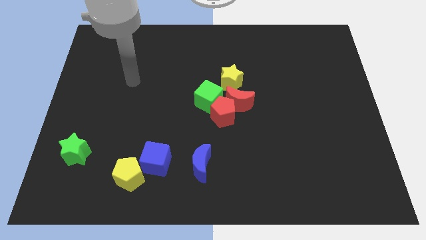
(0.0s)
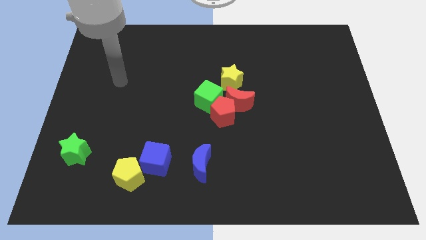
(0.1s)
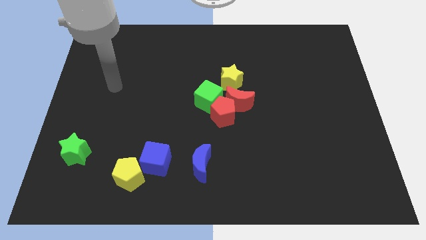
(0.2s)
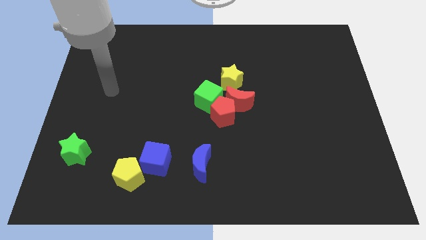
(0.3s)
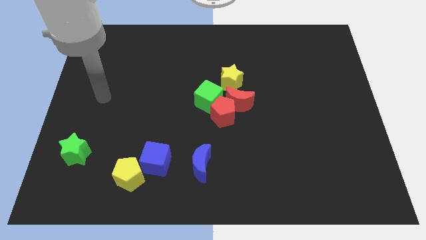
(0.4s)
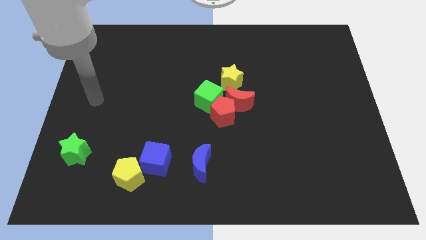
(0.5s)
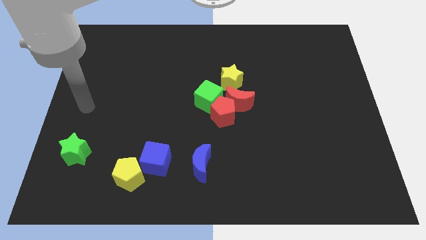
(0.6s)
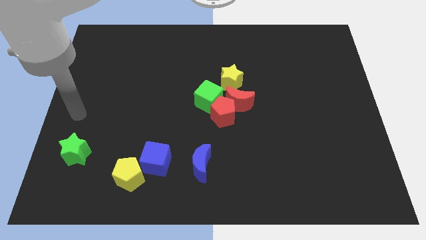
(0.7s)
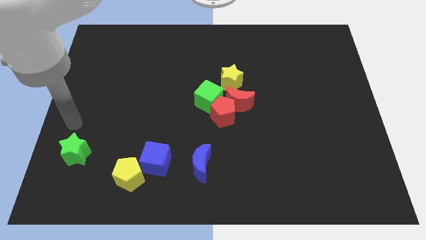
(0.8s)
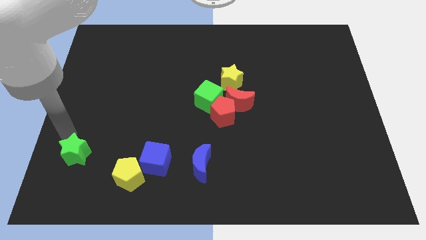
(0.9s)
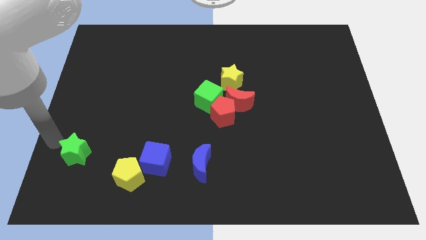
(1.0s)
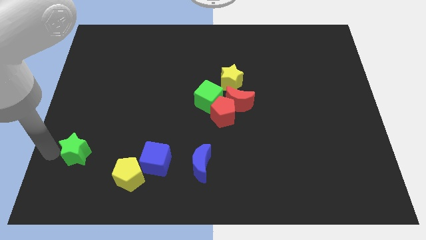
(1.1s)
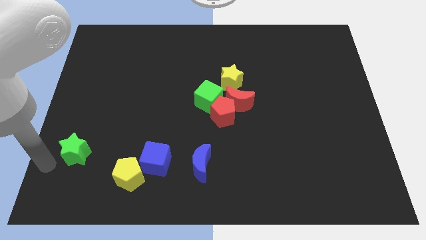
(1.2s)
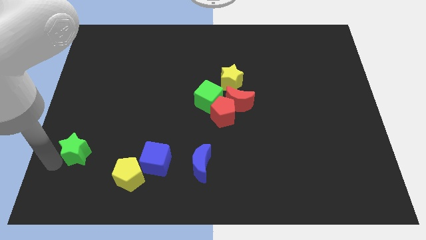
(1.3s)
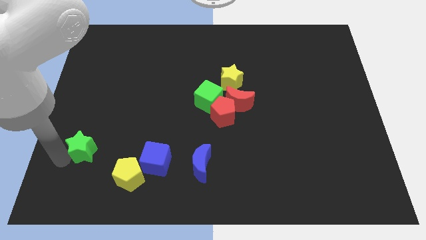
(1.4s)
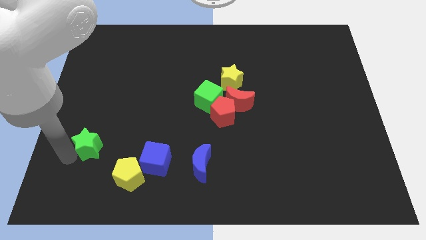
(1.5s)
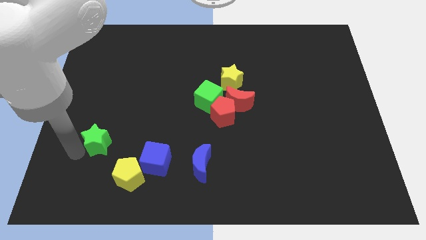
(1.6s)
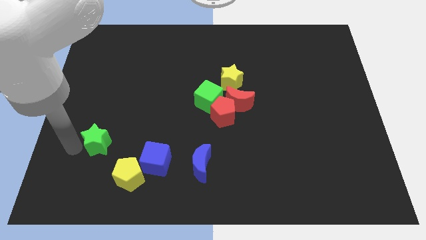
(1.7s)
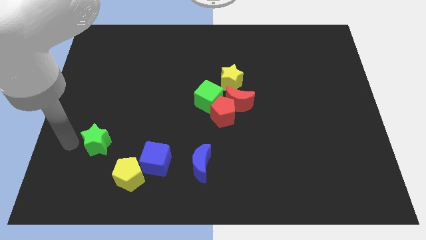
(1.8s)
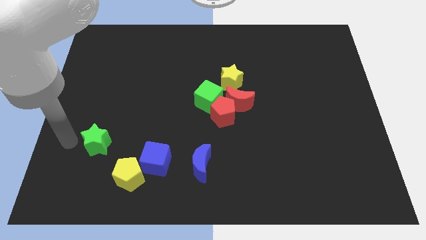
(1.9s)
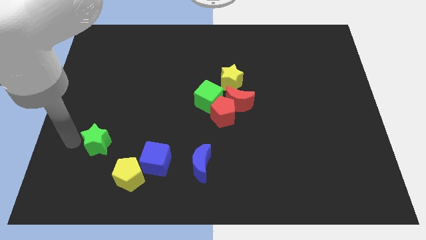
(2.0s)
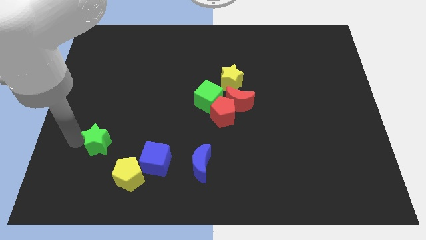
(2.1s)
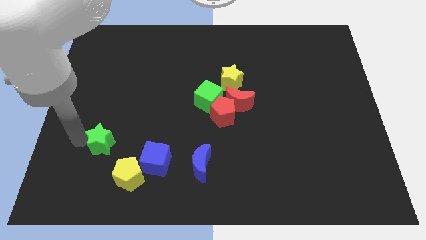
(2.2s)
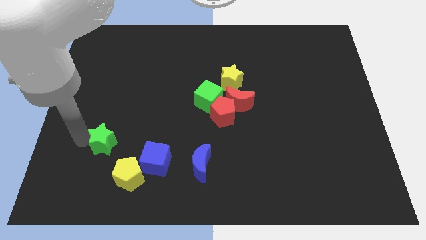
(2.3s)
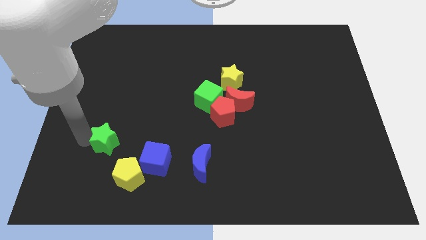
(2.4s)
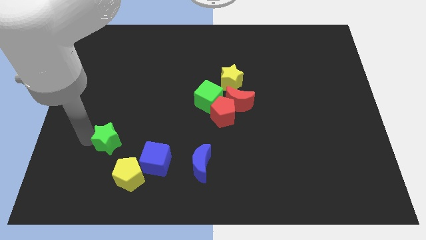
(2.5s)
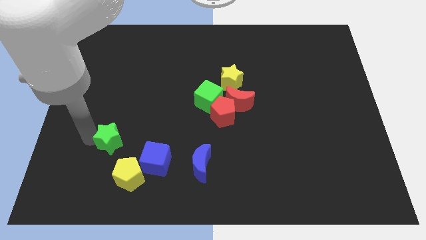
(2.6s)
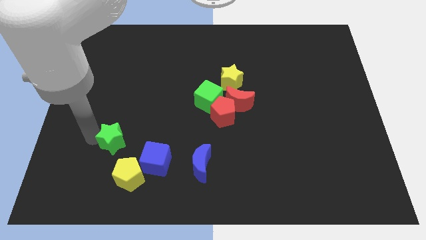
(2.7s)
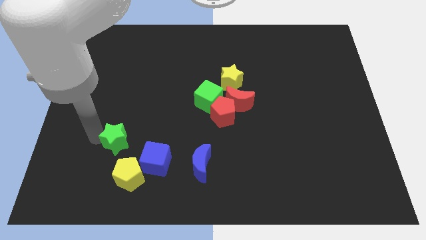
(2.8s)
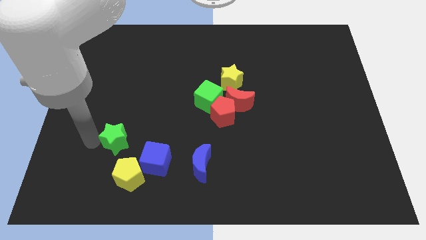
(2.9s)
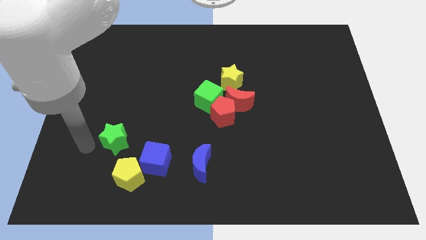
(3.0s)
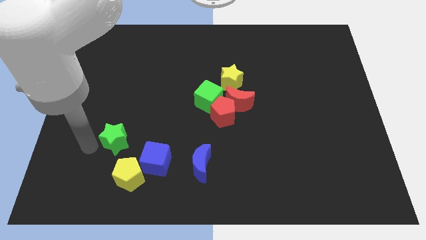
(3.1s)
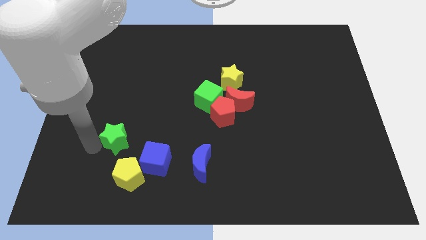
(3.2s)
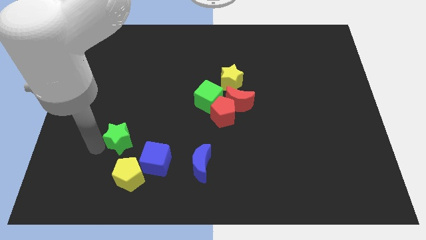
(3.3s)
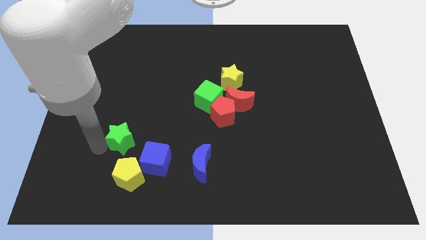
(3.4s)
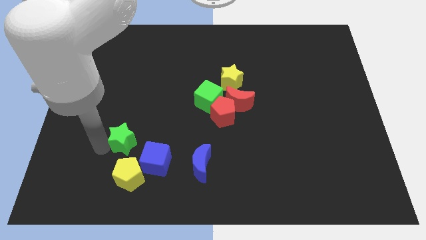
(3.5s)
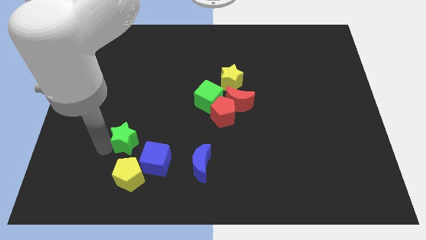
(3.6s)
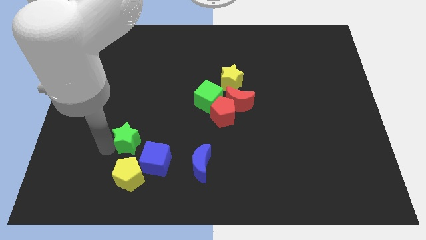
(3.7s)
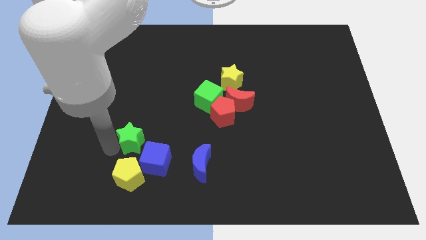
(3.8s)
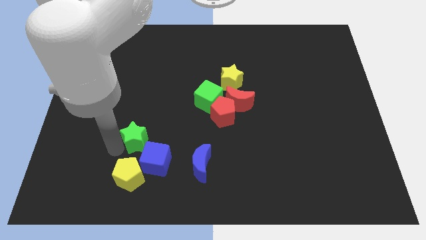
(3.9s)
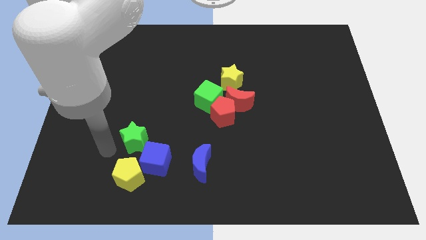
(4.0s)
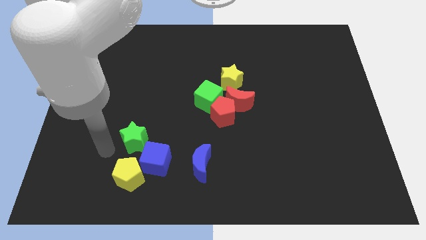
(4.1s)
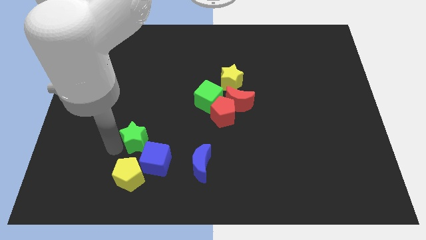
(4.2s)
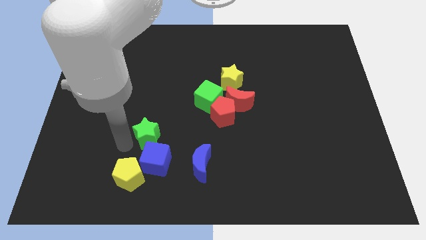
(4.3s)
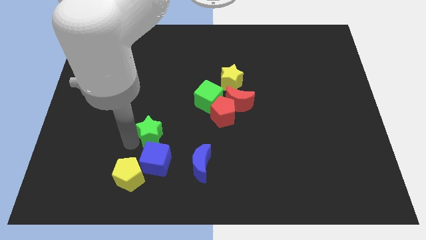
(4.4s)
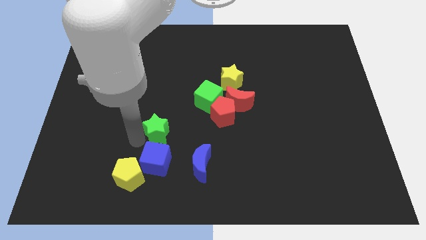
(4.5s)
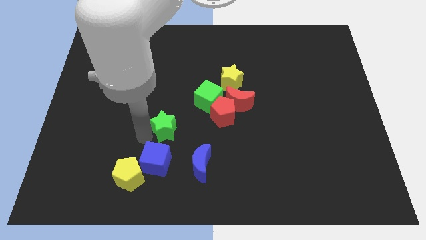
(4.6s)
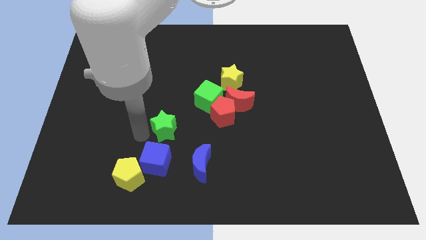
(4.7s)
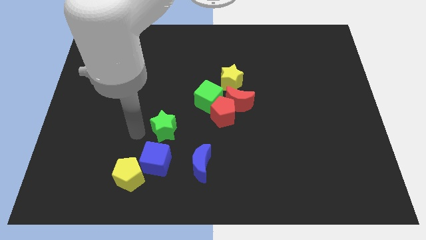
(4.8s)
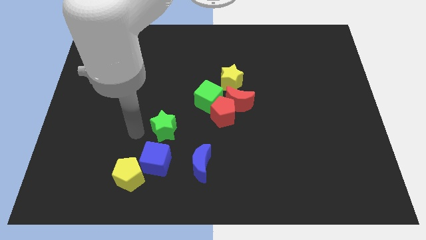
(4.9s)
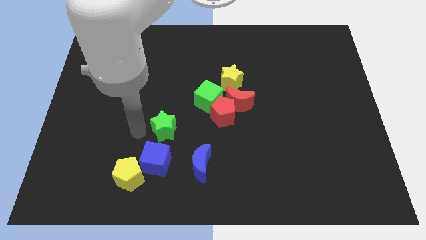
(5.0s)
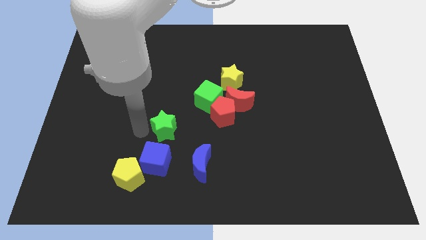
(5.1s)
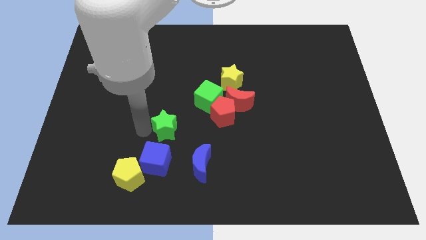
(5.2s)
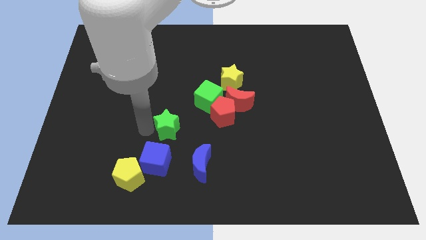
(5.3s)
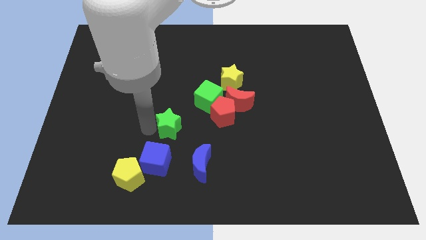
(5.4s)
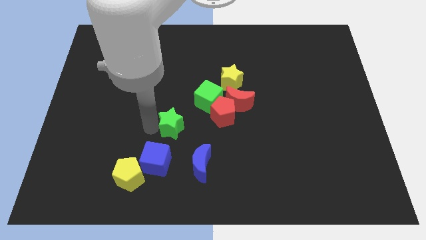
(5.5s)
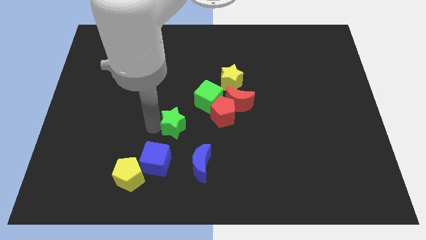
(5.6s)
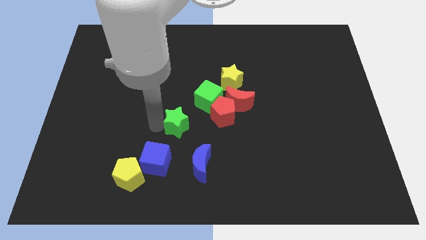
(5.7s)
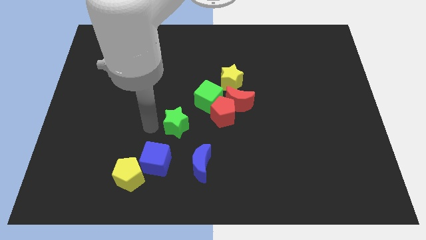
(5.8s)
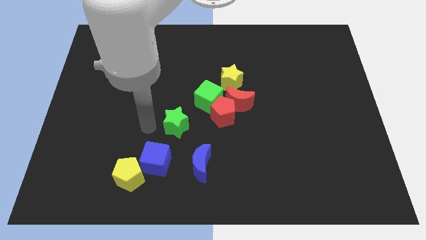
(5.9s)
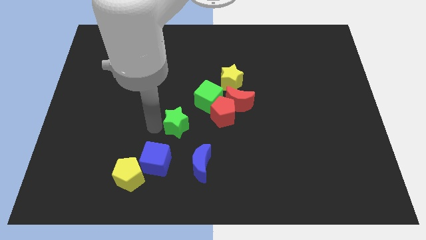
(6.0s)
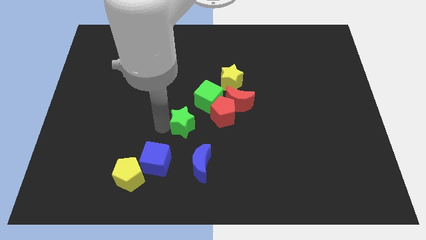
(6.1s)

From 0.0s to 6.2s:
push the green star to the top of the blue moon

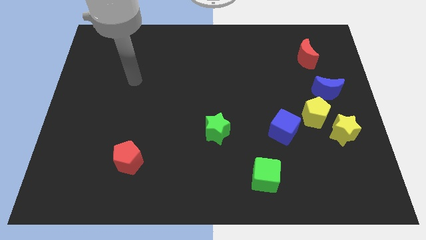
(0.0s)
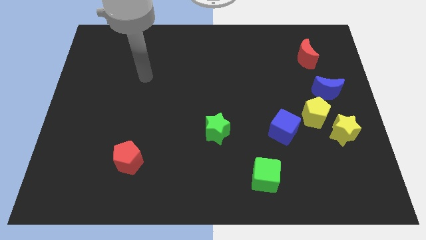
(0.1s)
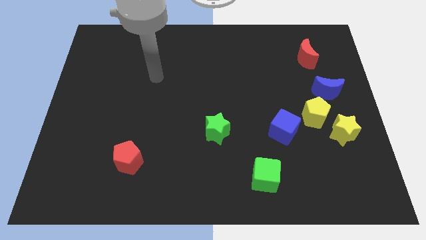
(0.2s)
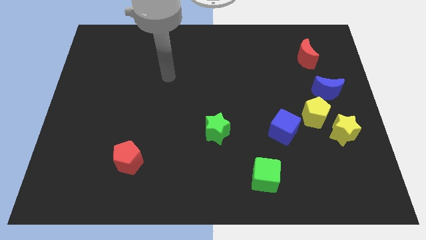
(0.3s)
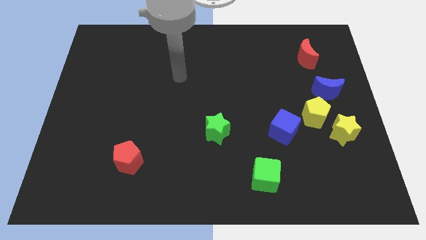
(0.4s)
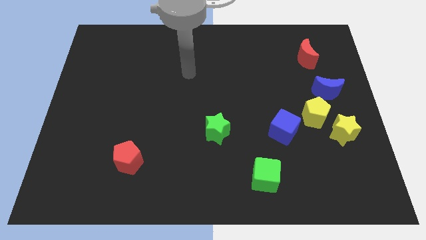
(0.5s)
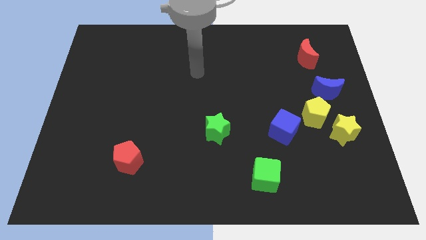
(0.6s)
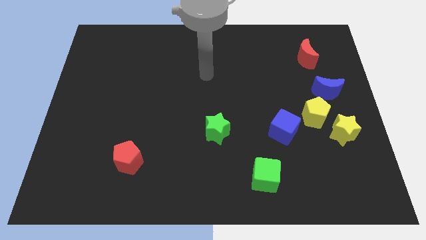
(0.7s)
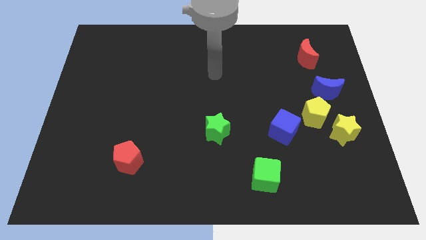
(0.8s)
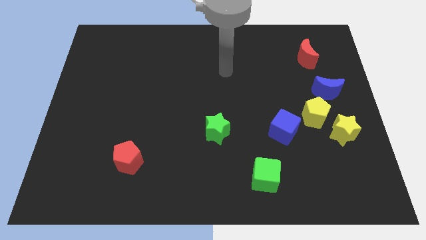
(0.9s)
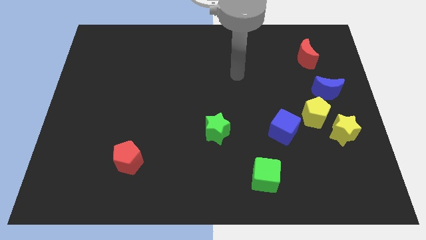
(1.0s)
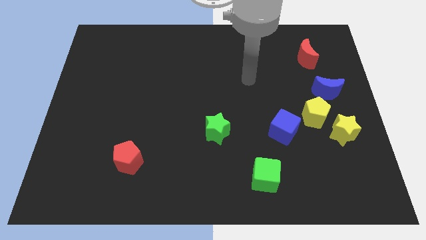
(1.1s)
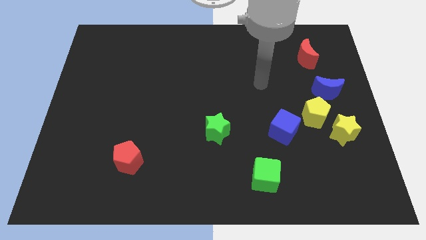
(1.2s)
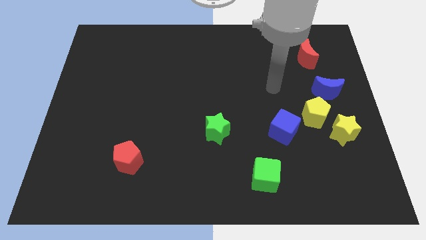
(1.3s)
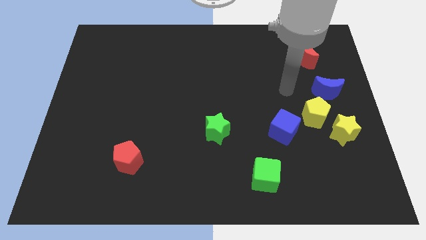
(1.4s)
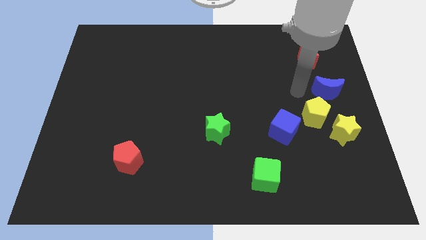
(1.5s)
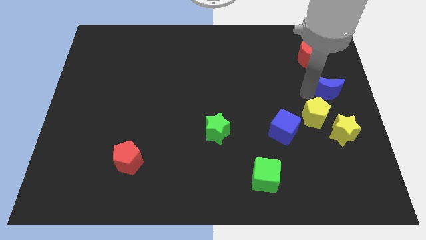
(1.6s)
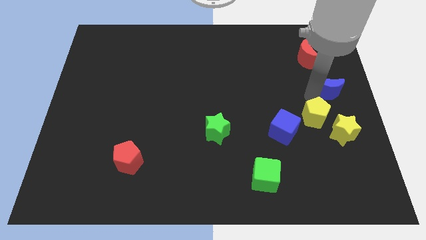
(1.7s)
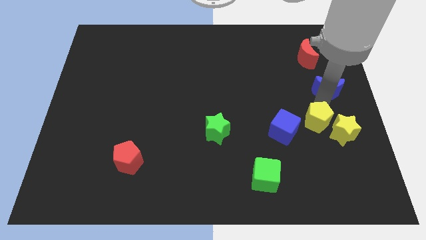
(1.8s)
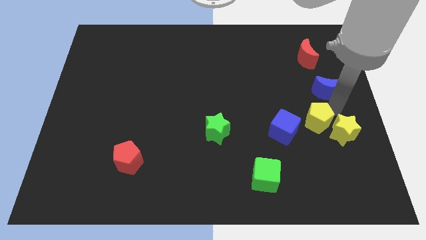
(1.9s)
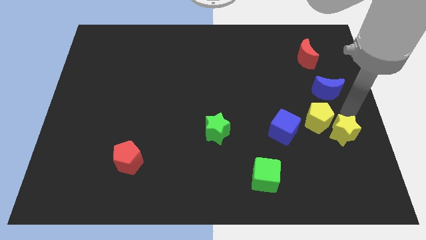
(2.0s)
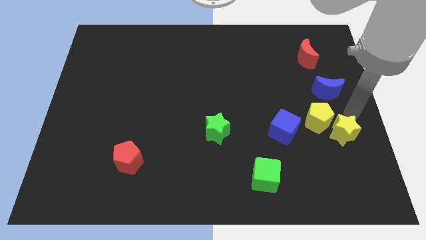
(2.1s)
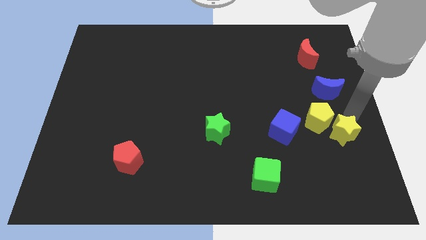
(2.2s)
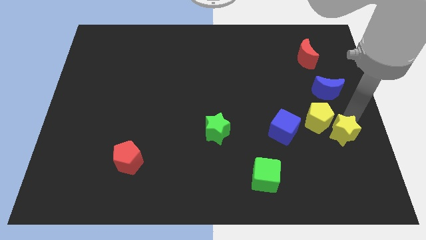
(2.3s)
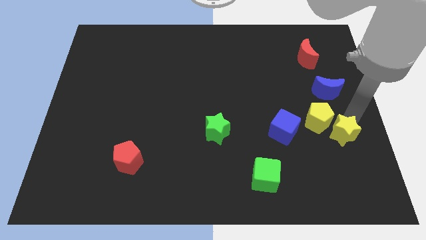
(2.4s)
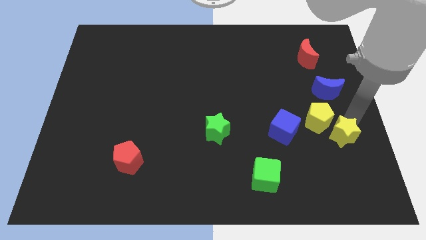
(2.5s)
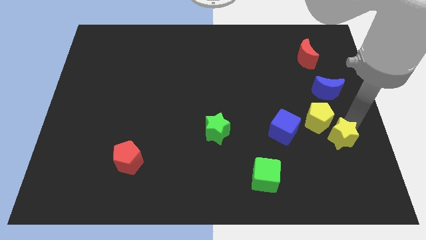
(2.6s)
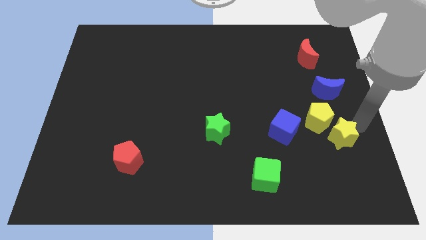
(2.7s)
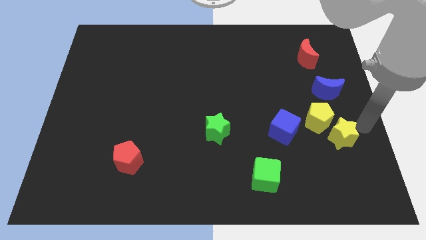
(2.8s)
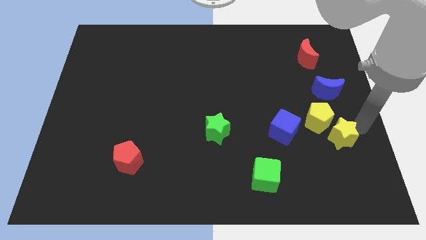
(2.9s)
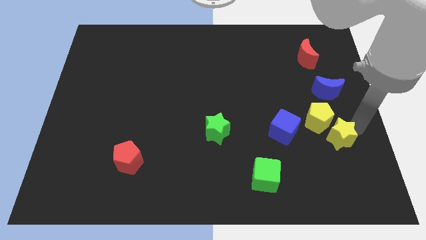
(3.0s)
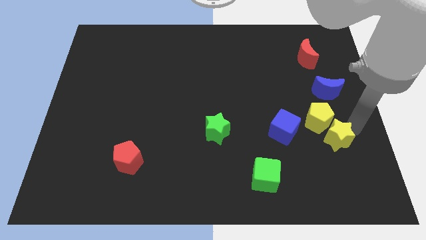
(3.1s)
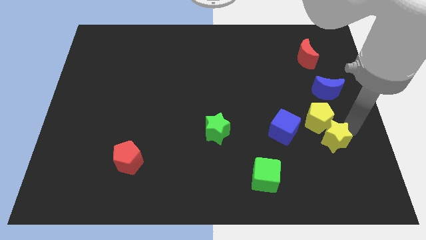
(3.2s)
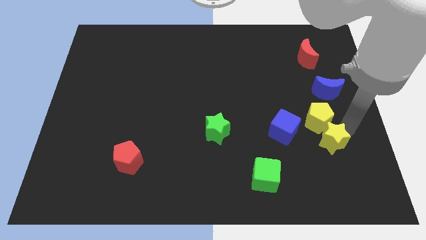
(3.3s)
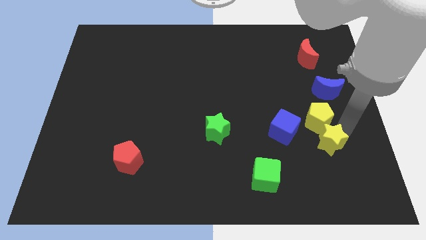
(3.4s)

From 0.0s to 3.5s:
move the yellow star to the bottom right side of the blue cube
